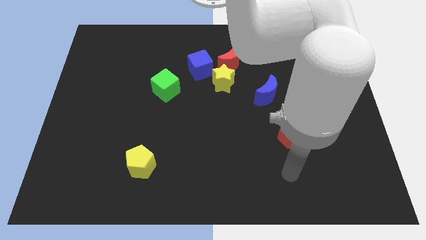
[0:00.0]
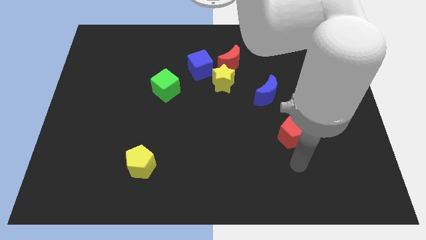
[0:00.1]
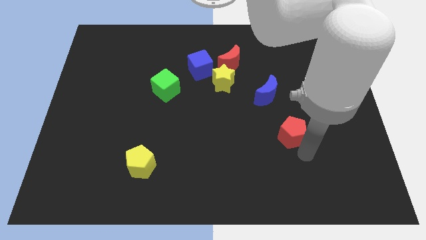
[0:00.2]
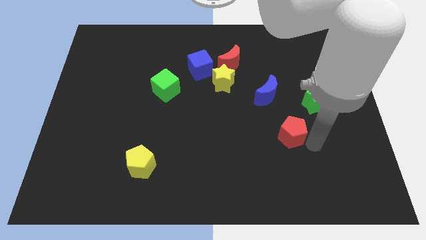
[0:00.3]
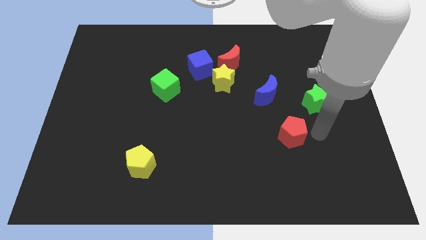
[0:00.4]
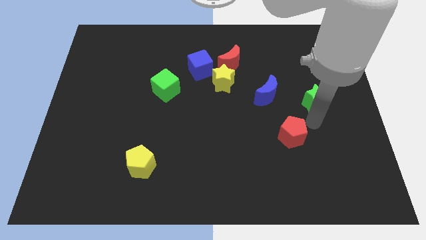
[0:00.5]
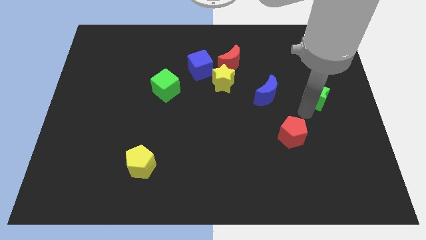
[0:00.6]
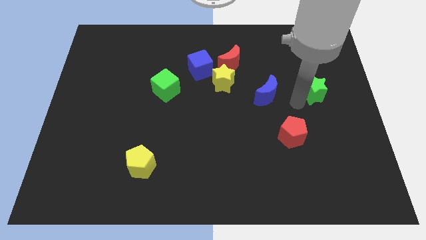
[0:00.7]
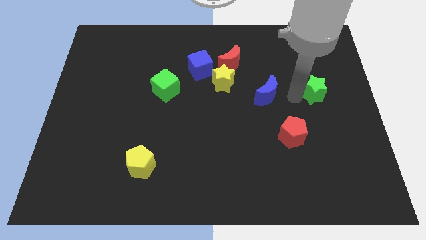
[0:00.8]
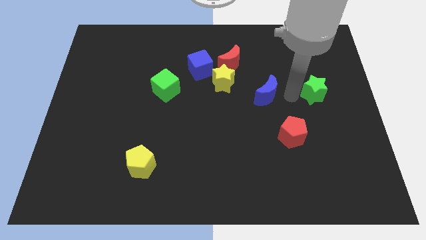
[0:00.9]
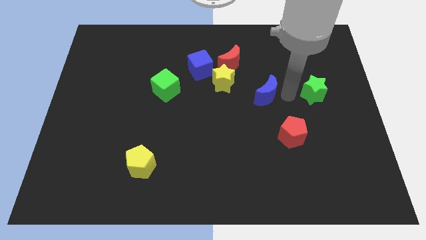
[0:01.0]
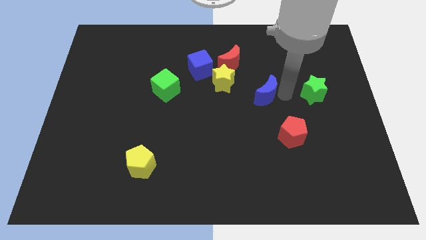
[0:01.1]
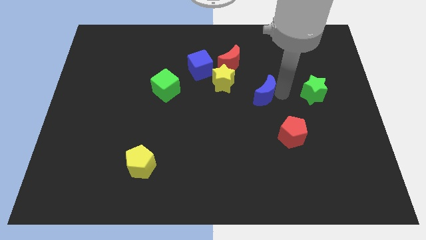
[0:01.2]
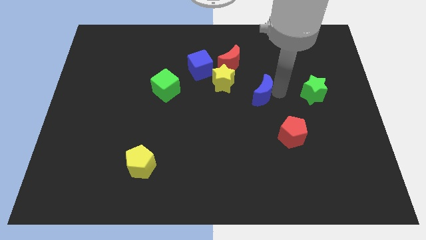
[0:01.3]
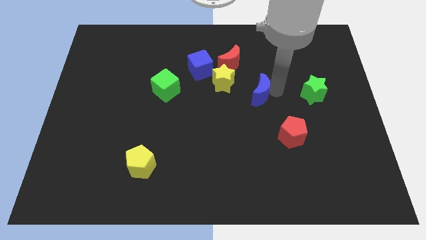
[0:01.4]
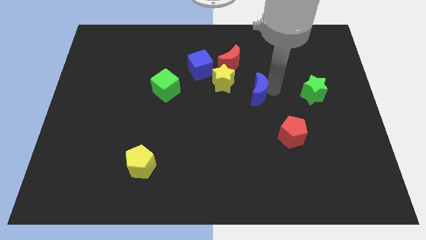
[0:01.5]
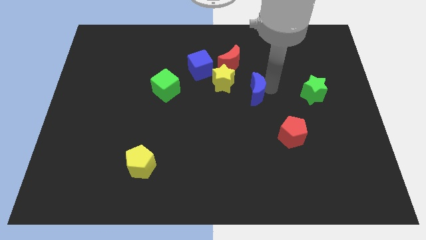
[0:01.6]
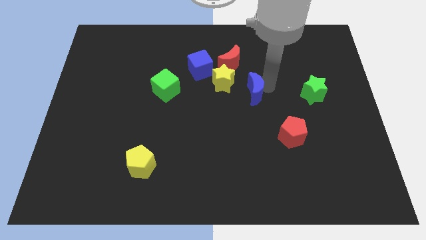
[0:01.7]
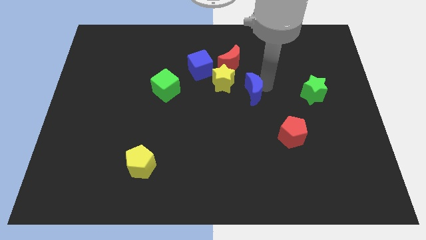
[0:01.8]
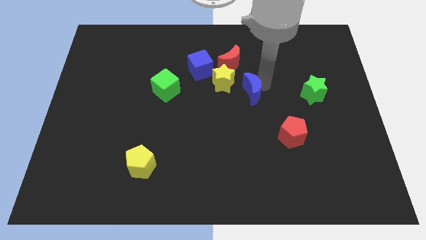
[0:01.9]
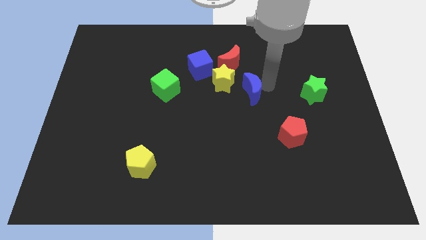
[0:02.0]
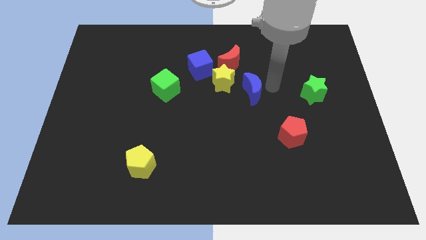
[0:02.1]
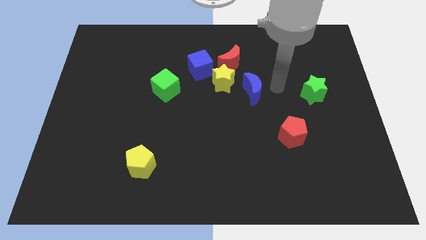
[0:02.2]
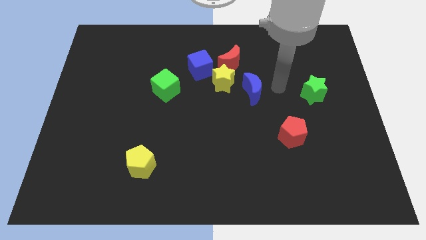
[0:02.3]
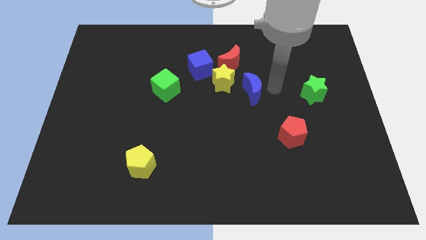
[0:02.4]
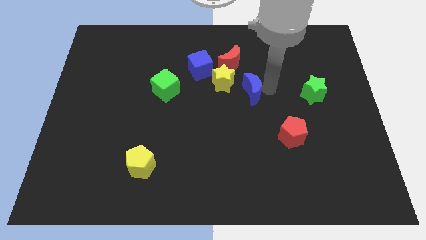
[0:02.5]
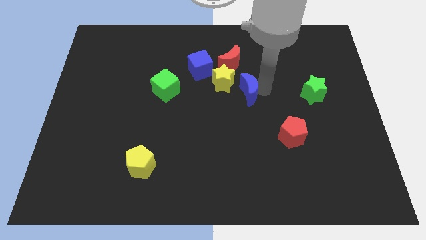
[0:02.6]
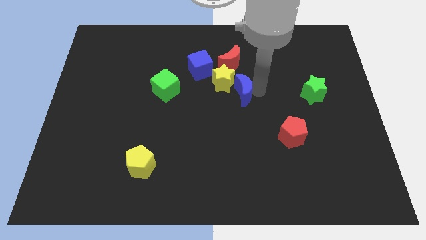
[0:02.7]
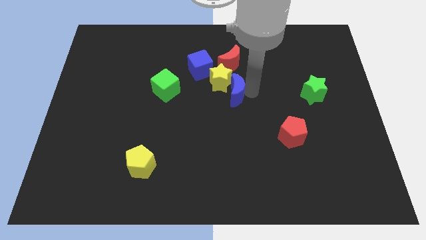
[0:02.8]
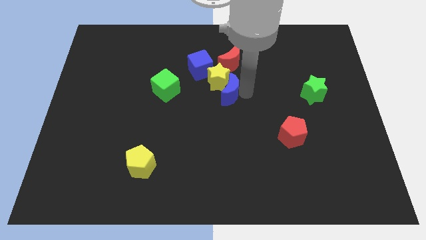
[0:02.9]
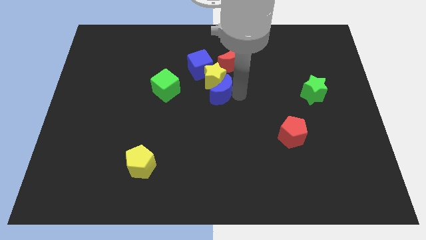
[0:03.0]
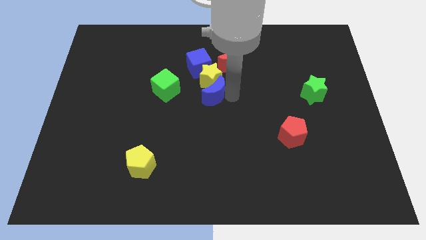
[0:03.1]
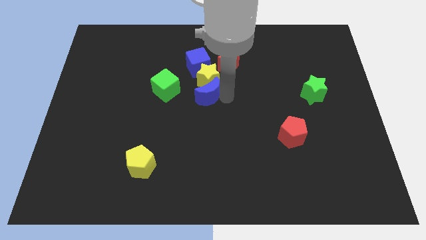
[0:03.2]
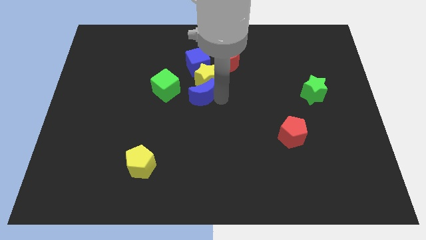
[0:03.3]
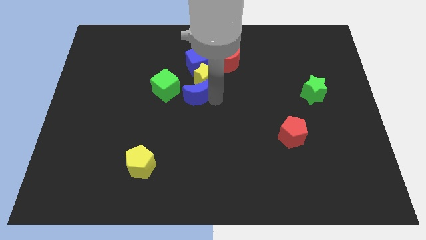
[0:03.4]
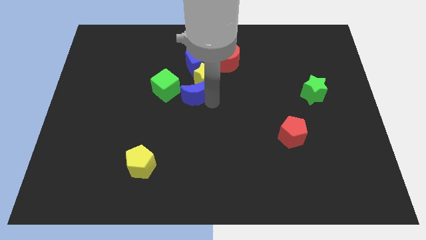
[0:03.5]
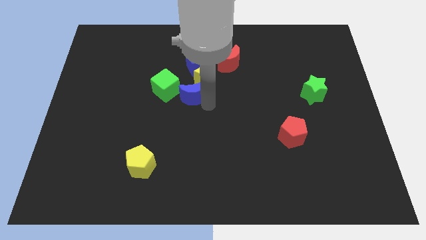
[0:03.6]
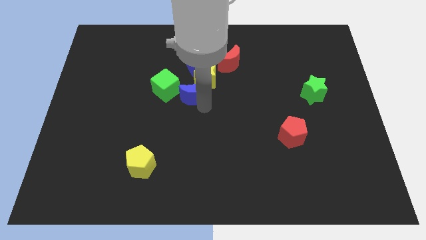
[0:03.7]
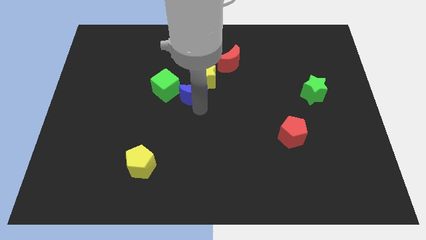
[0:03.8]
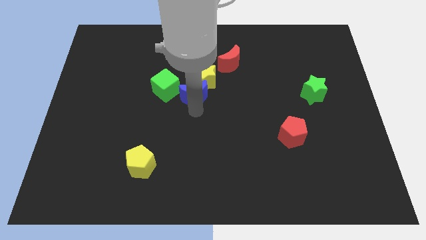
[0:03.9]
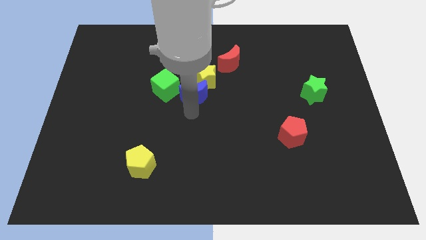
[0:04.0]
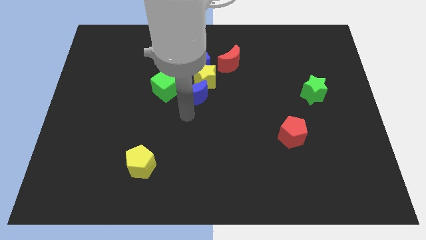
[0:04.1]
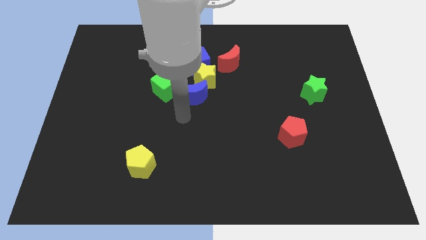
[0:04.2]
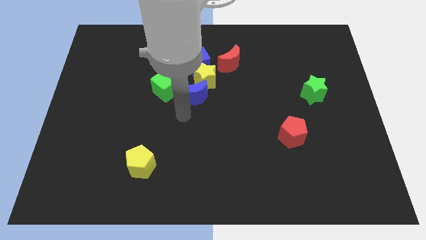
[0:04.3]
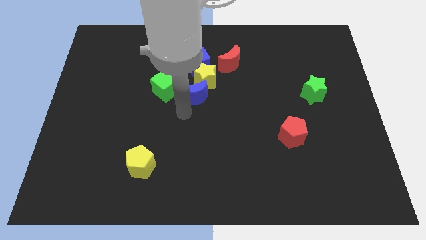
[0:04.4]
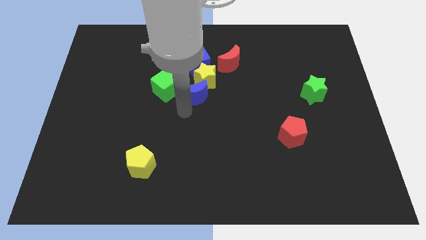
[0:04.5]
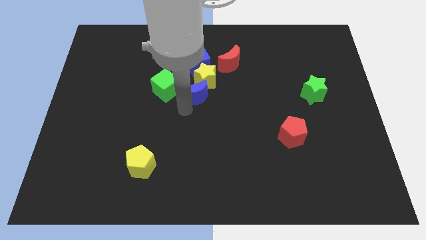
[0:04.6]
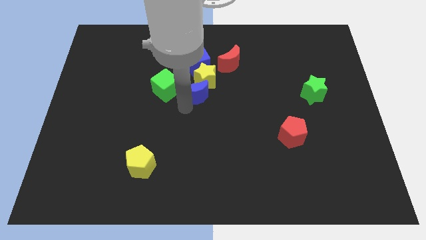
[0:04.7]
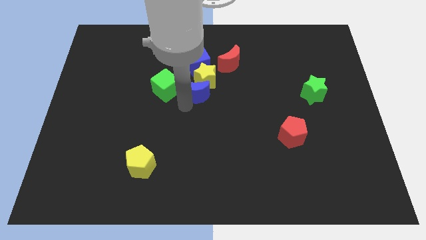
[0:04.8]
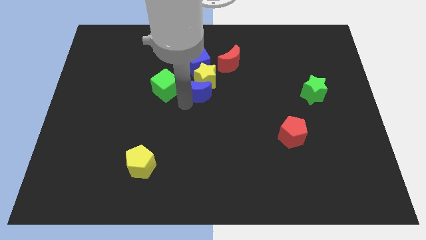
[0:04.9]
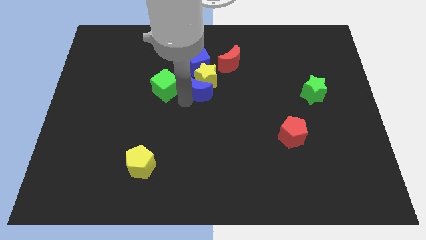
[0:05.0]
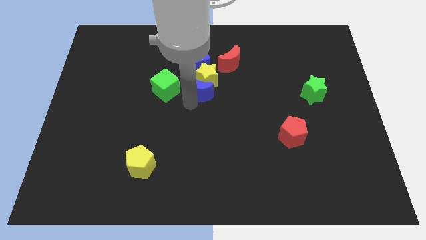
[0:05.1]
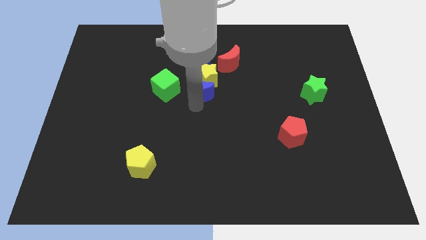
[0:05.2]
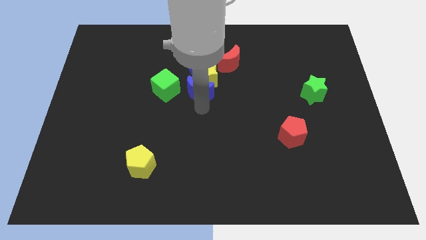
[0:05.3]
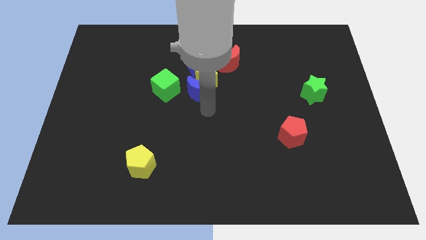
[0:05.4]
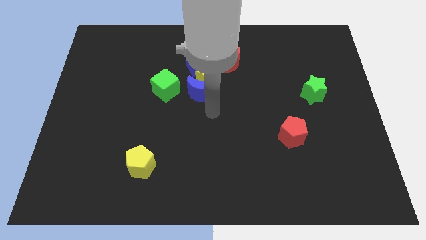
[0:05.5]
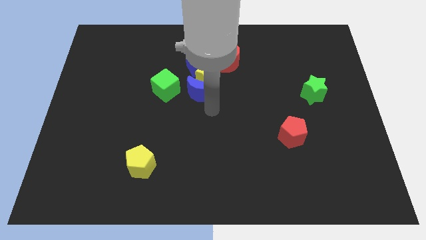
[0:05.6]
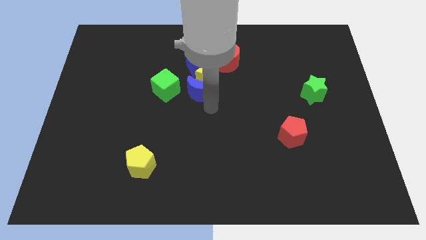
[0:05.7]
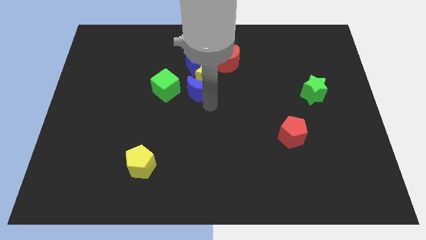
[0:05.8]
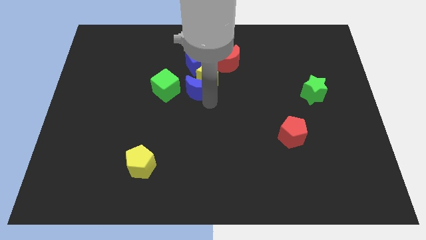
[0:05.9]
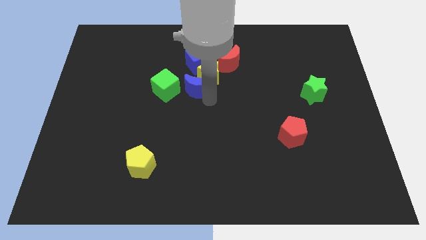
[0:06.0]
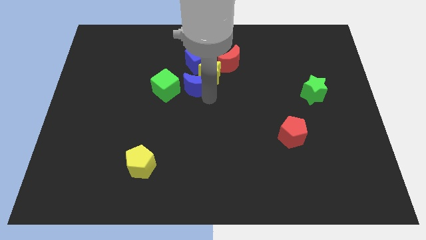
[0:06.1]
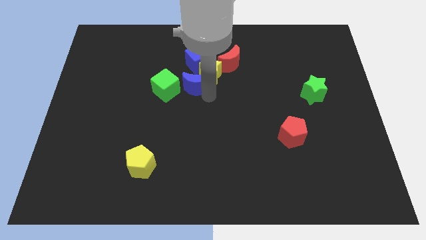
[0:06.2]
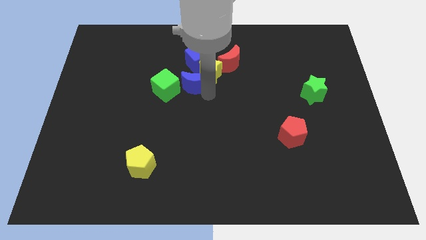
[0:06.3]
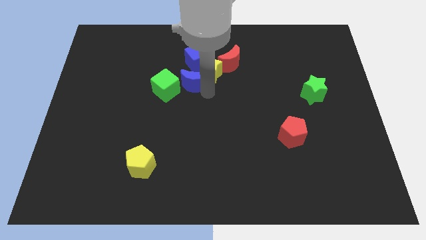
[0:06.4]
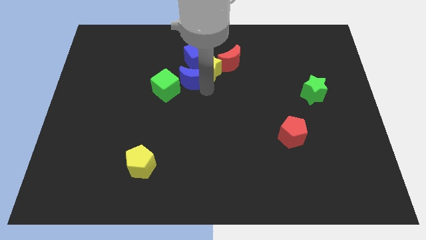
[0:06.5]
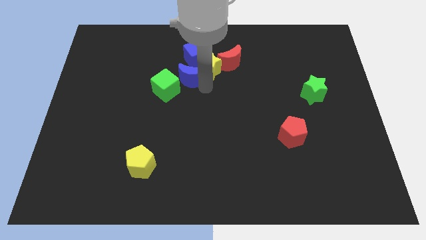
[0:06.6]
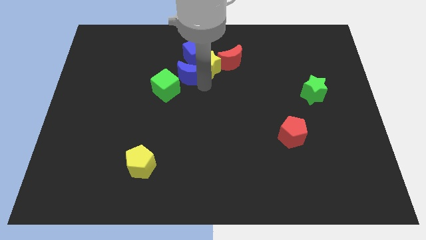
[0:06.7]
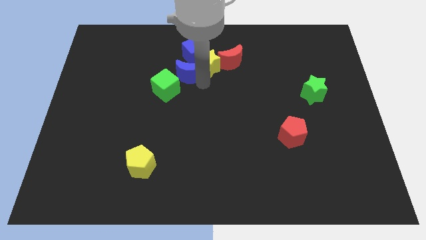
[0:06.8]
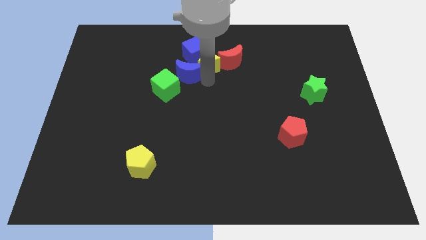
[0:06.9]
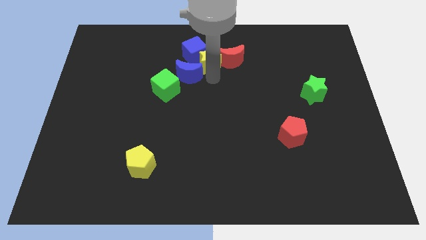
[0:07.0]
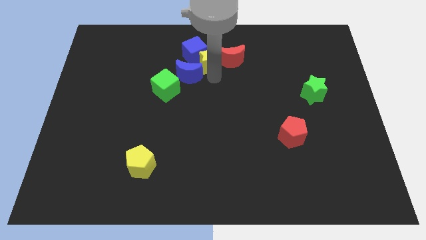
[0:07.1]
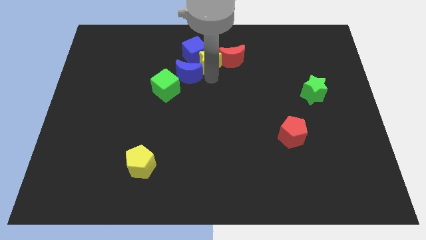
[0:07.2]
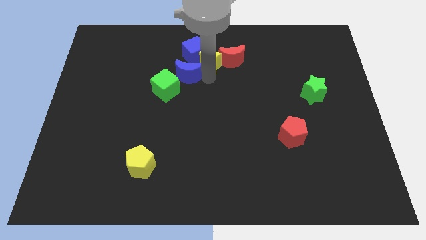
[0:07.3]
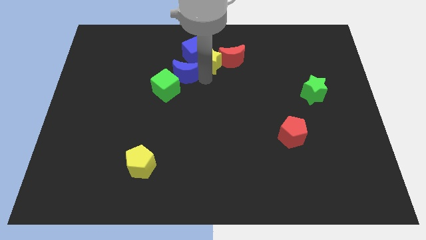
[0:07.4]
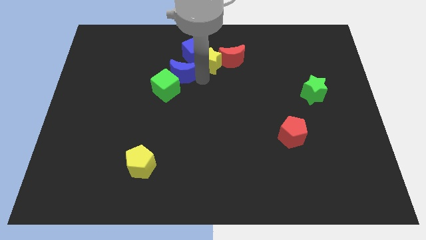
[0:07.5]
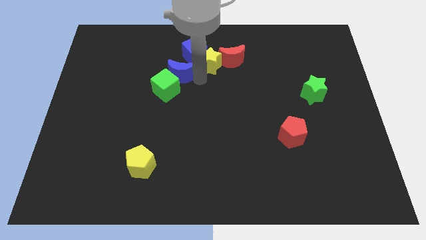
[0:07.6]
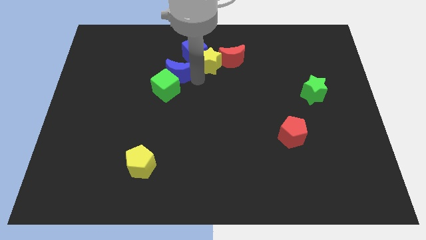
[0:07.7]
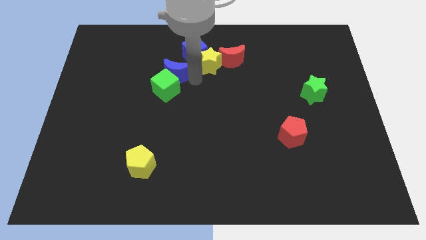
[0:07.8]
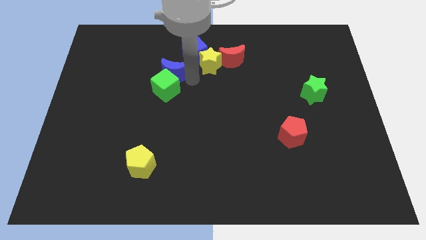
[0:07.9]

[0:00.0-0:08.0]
put the blue moon to the top left of the green cube
